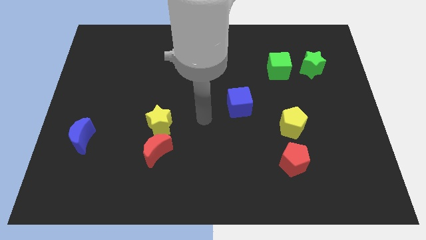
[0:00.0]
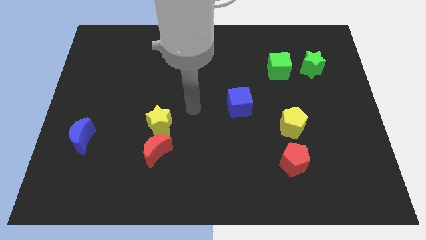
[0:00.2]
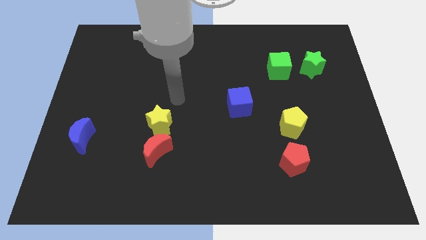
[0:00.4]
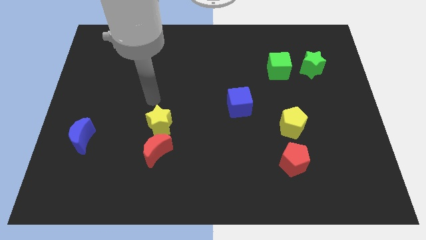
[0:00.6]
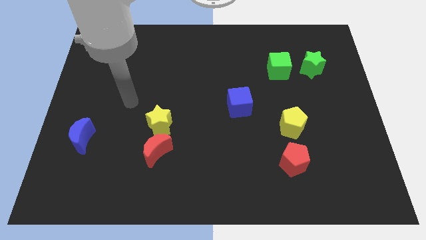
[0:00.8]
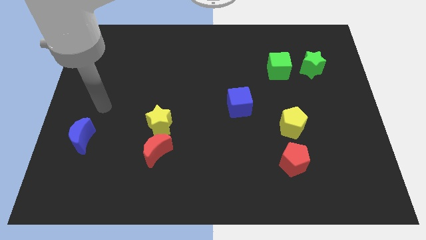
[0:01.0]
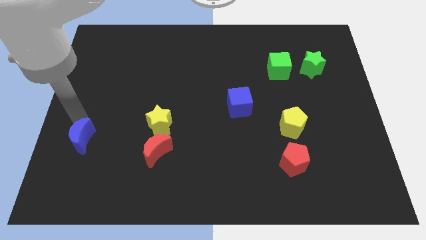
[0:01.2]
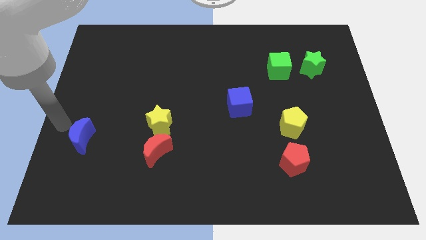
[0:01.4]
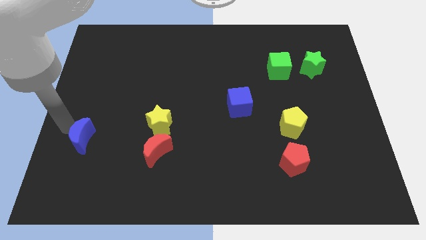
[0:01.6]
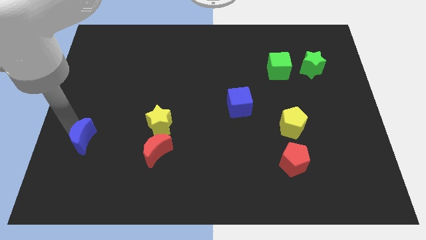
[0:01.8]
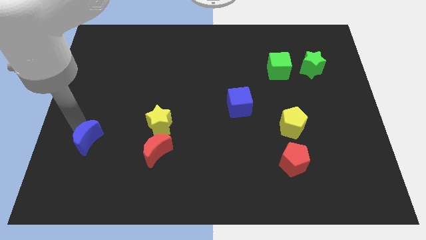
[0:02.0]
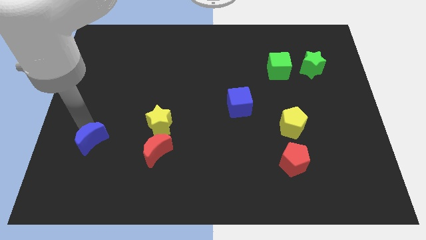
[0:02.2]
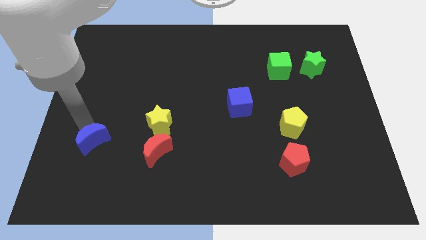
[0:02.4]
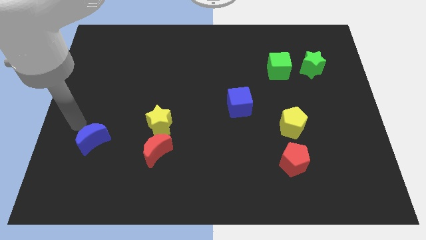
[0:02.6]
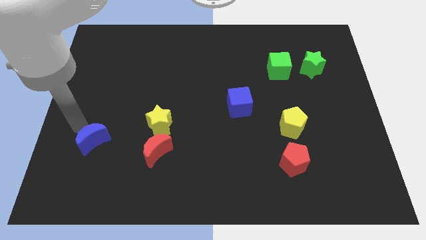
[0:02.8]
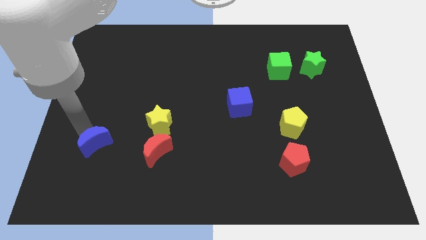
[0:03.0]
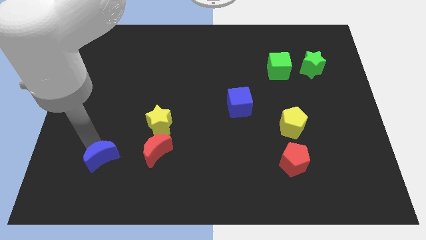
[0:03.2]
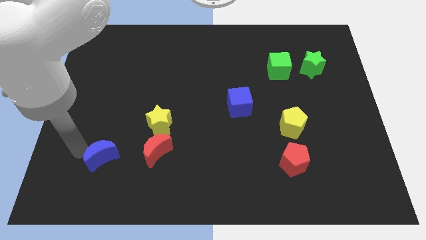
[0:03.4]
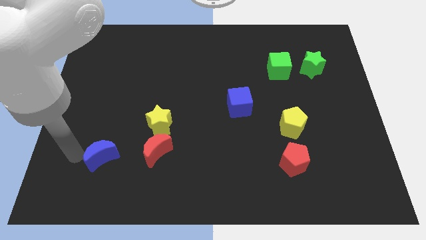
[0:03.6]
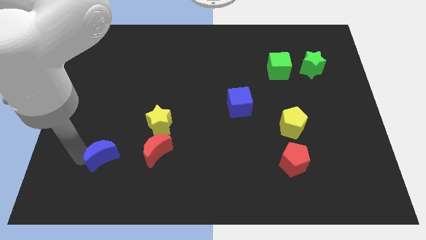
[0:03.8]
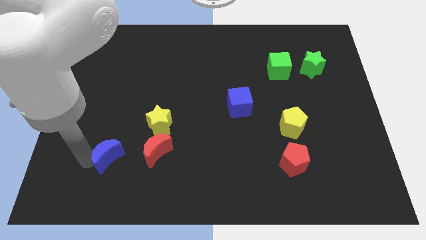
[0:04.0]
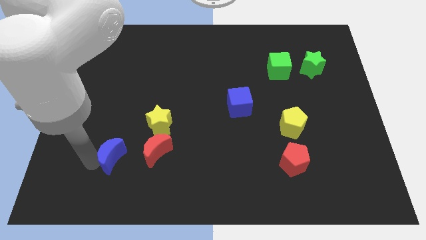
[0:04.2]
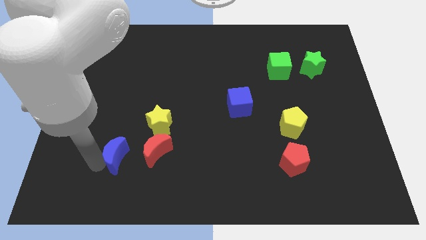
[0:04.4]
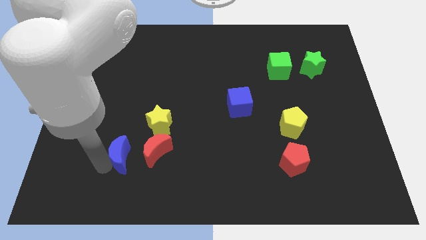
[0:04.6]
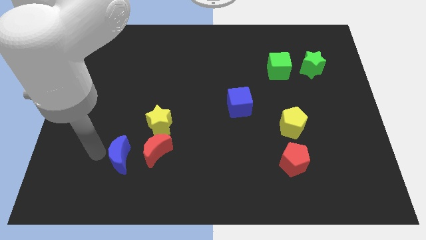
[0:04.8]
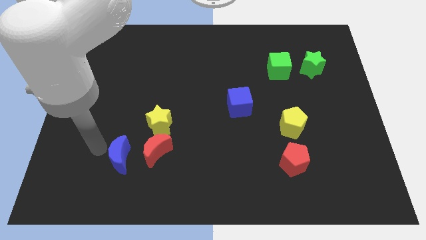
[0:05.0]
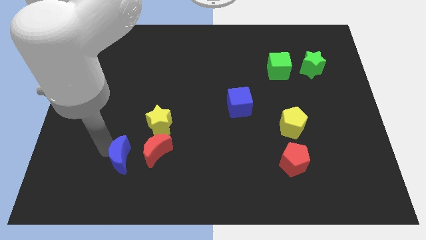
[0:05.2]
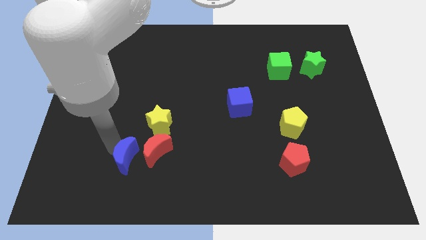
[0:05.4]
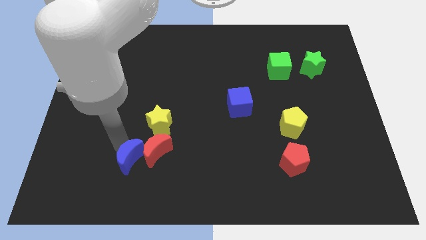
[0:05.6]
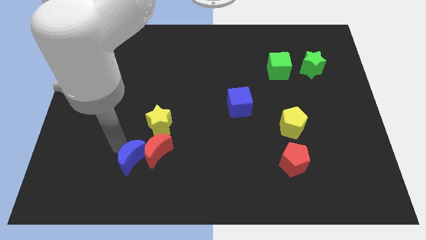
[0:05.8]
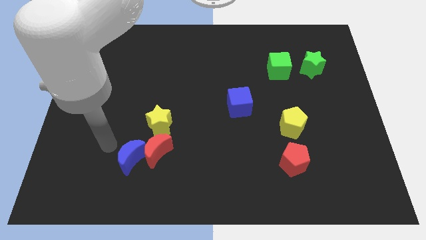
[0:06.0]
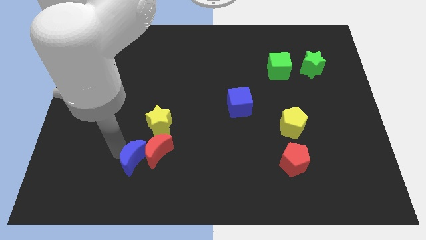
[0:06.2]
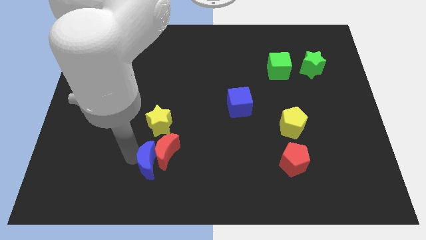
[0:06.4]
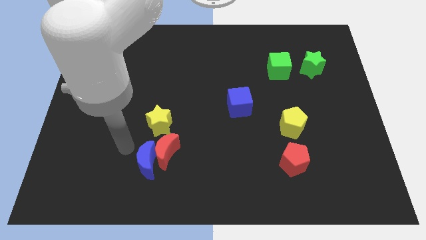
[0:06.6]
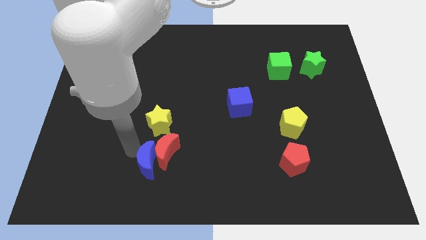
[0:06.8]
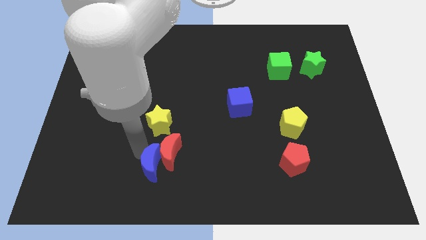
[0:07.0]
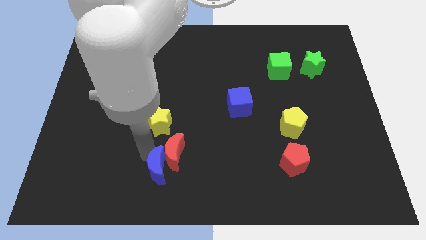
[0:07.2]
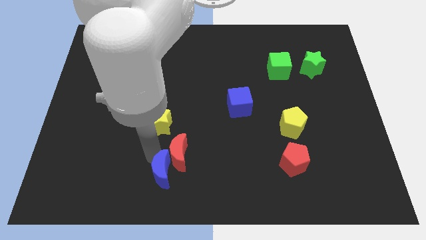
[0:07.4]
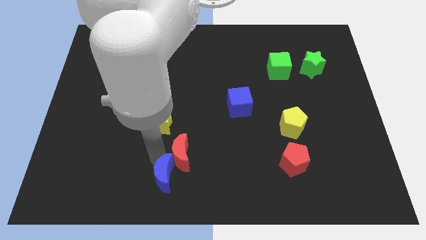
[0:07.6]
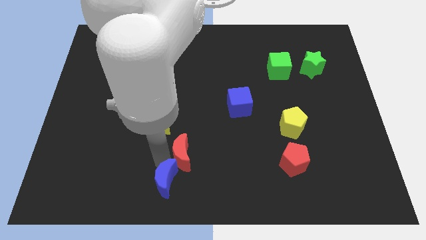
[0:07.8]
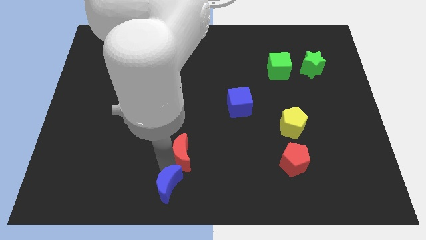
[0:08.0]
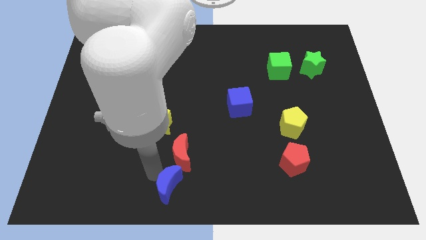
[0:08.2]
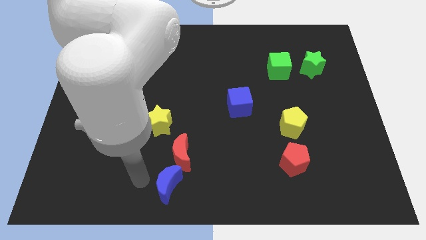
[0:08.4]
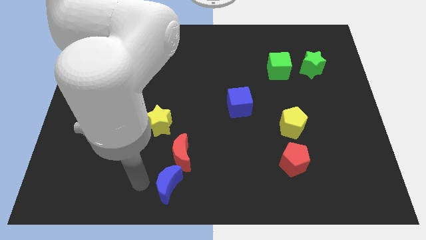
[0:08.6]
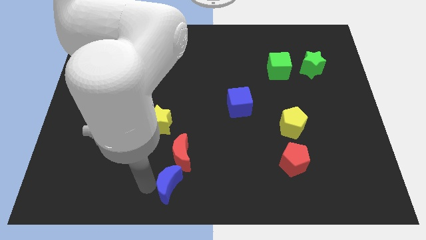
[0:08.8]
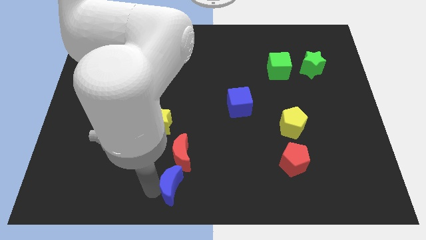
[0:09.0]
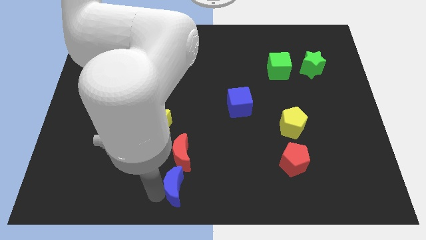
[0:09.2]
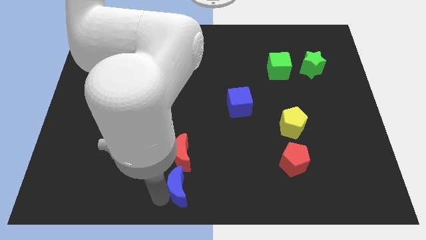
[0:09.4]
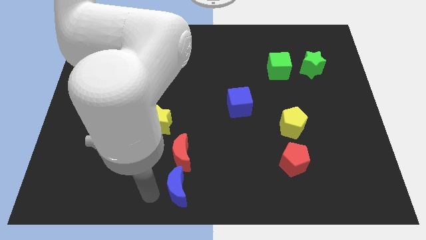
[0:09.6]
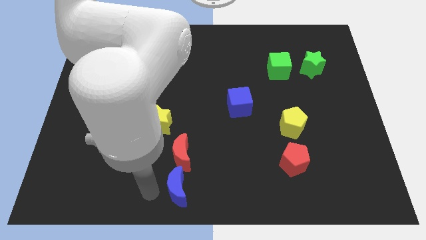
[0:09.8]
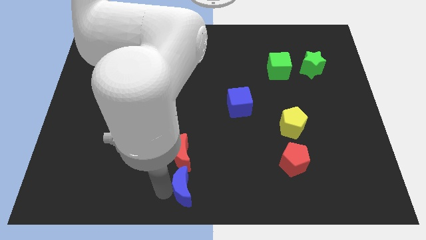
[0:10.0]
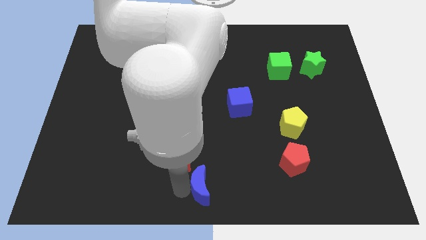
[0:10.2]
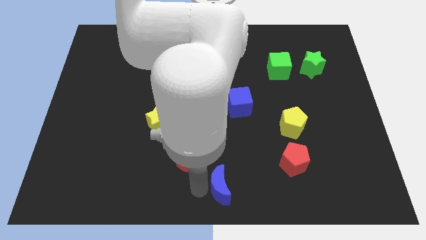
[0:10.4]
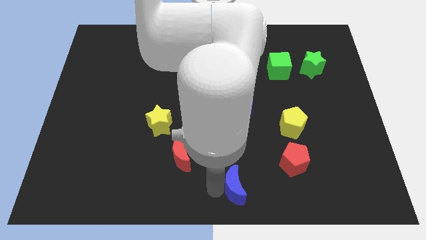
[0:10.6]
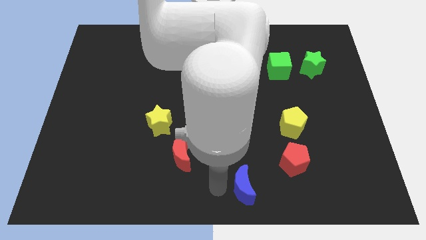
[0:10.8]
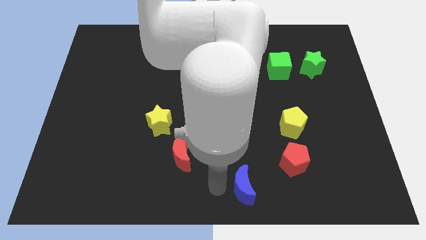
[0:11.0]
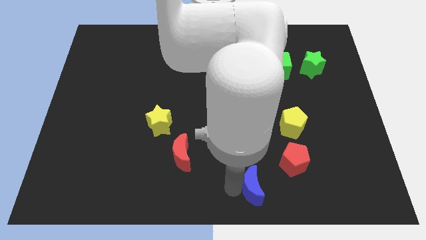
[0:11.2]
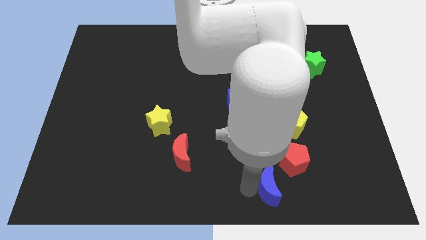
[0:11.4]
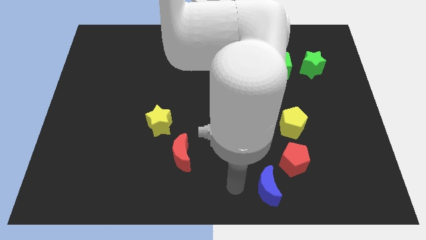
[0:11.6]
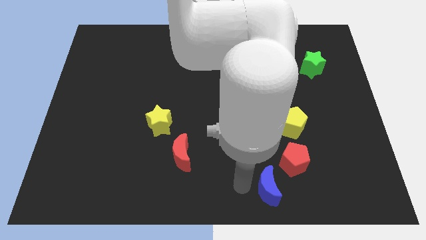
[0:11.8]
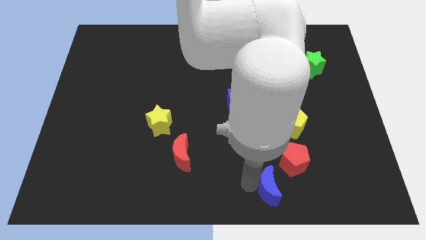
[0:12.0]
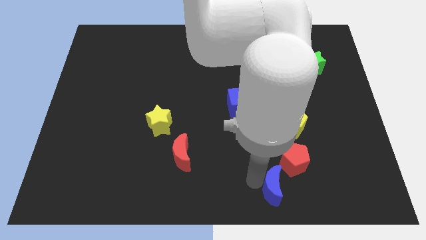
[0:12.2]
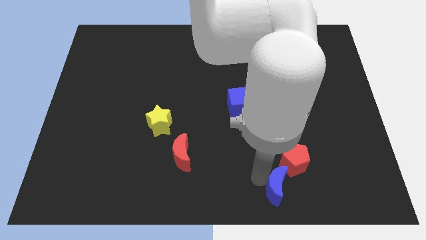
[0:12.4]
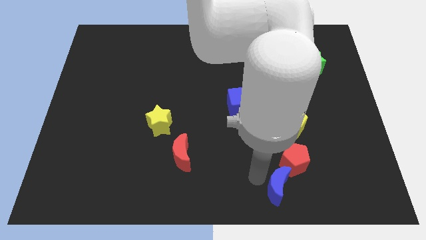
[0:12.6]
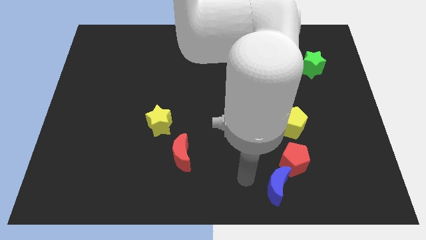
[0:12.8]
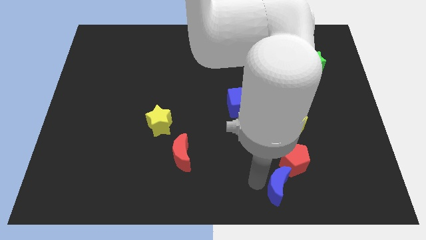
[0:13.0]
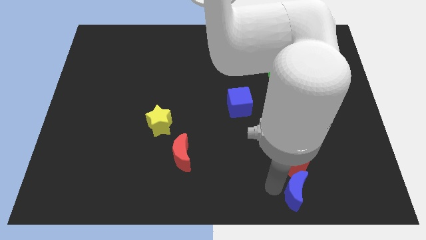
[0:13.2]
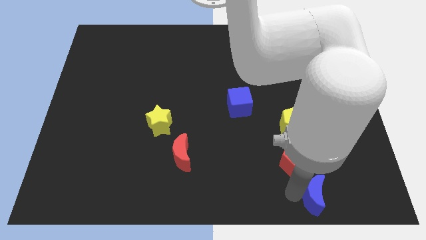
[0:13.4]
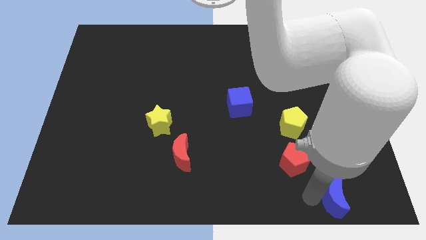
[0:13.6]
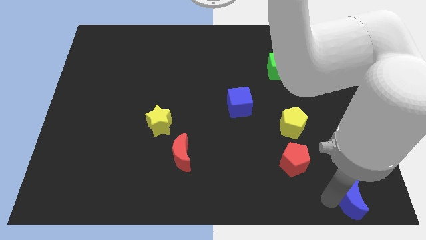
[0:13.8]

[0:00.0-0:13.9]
slide the blue moon to the lower right corner
